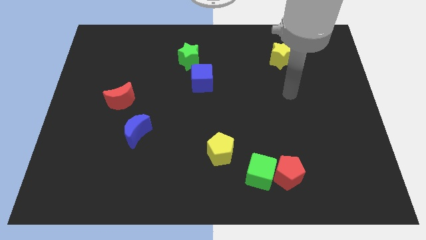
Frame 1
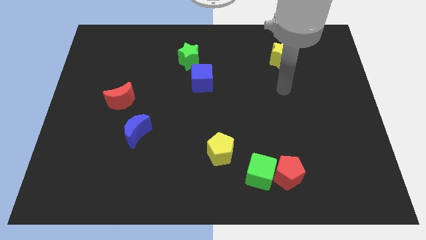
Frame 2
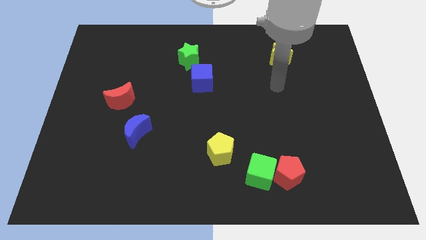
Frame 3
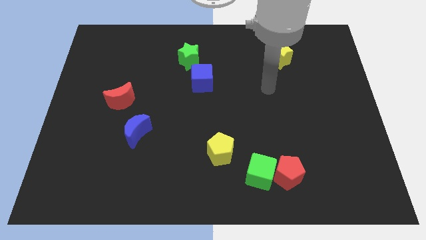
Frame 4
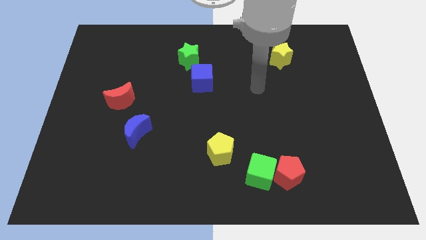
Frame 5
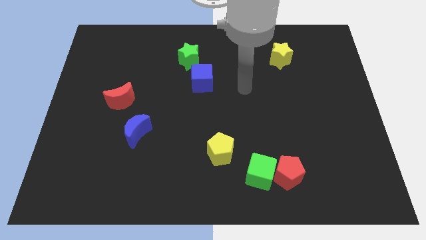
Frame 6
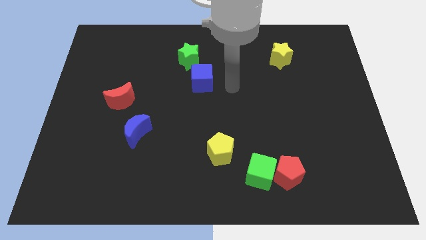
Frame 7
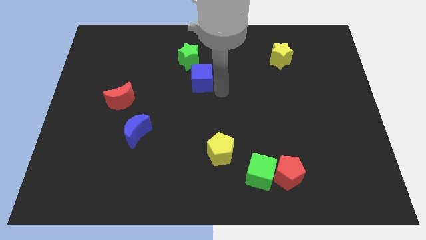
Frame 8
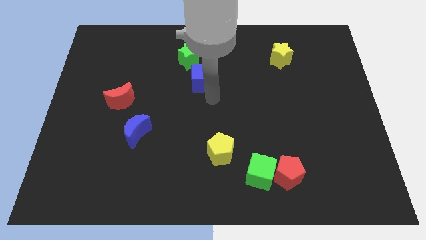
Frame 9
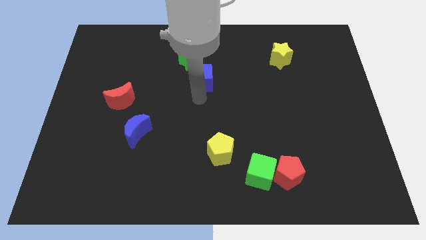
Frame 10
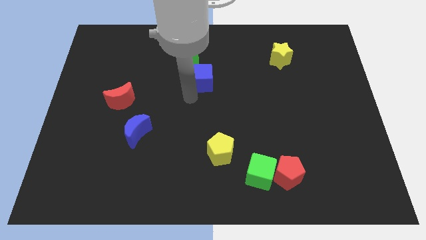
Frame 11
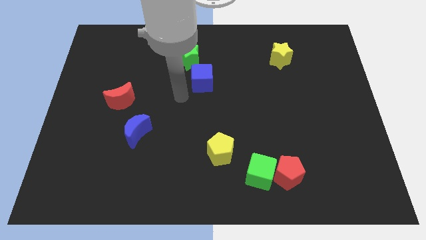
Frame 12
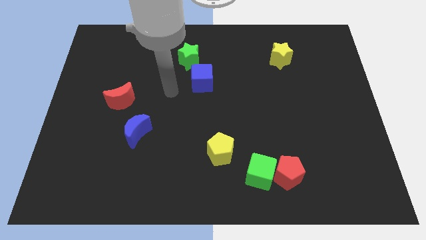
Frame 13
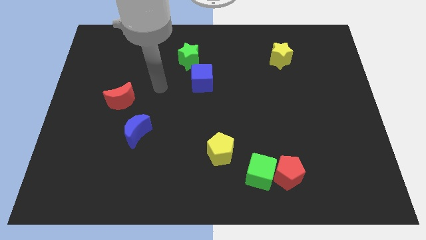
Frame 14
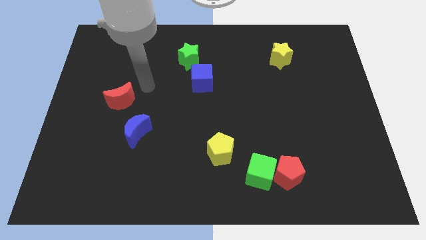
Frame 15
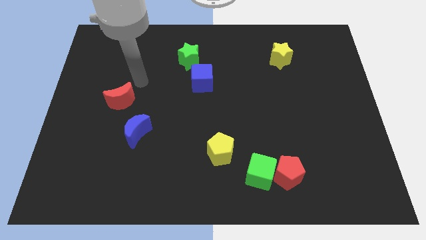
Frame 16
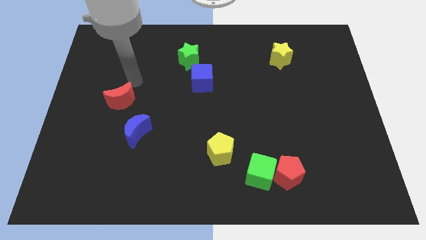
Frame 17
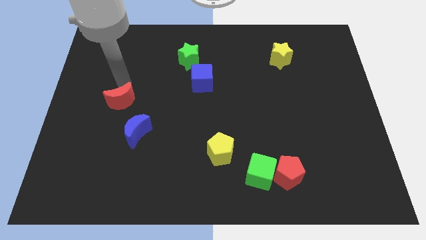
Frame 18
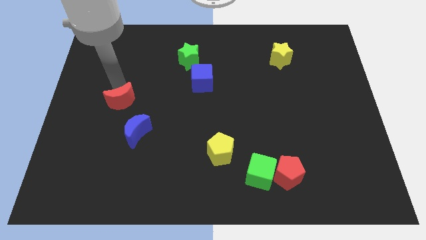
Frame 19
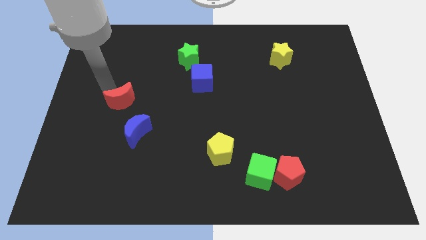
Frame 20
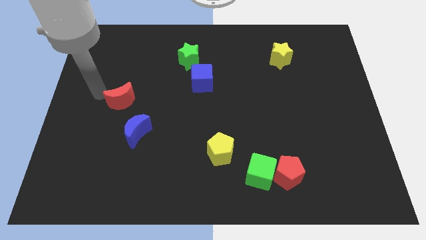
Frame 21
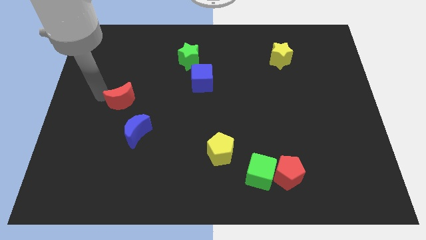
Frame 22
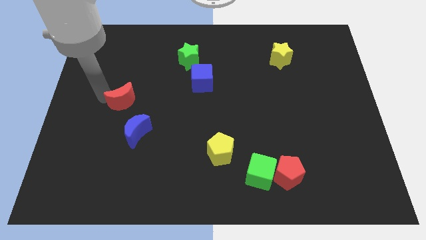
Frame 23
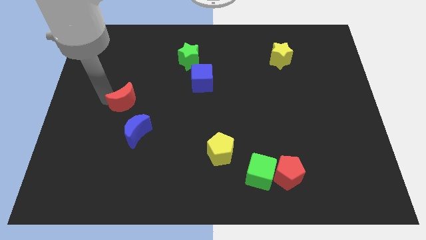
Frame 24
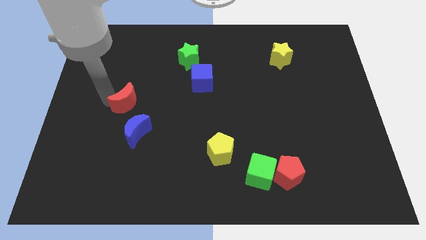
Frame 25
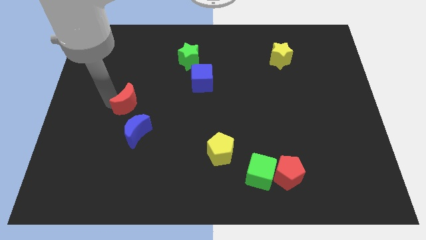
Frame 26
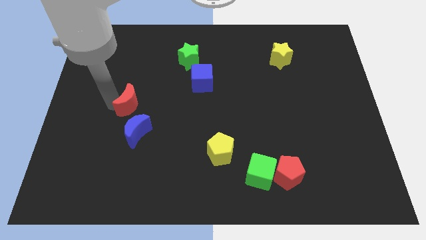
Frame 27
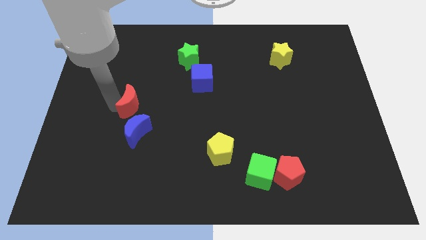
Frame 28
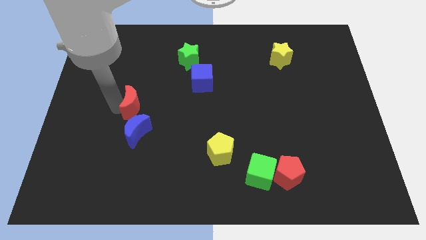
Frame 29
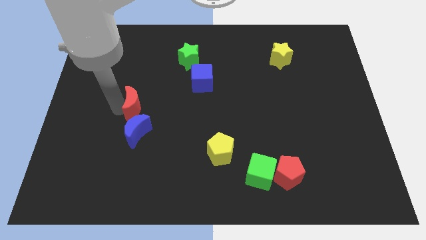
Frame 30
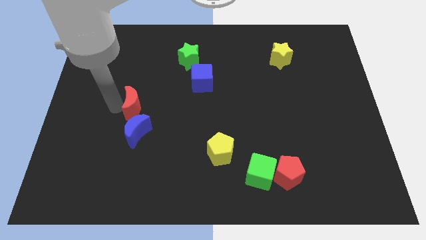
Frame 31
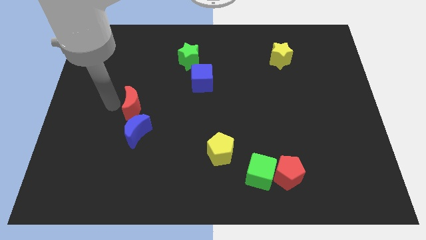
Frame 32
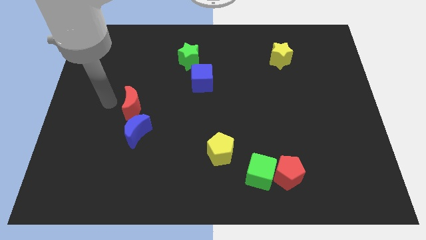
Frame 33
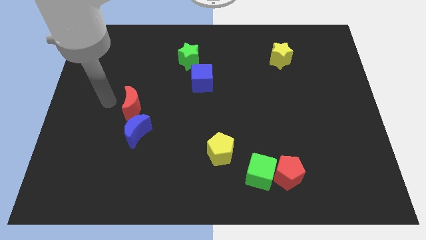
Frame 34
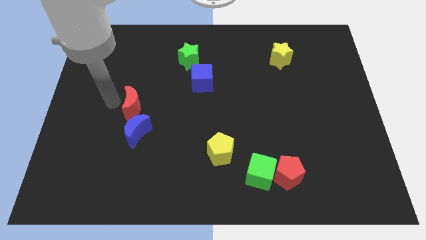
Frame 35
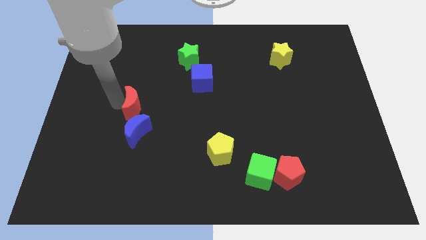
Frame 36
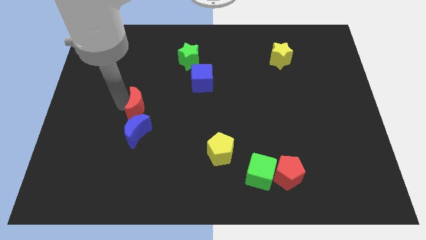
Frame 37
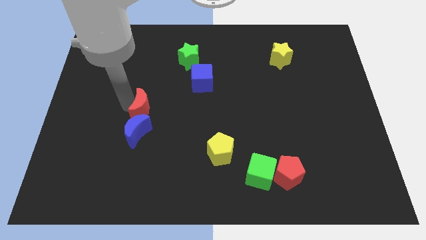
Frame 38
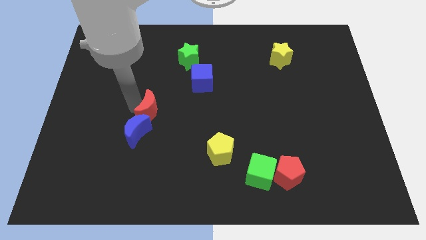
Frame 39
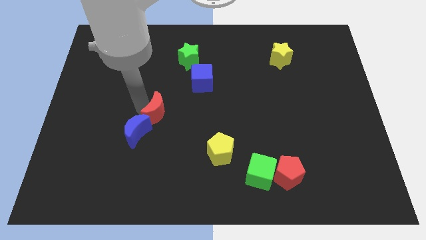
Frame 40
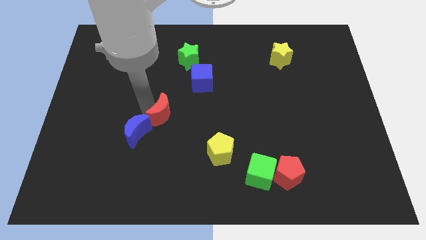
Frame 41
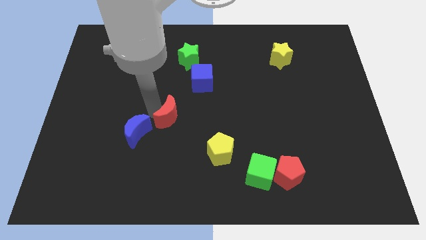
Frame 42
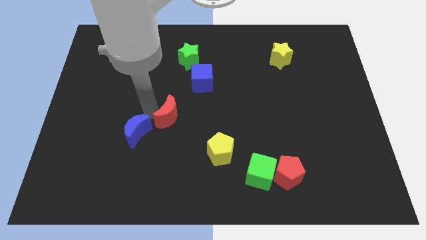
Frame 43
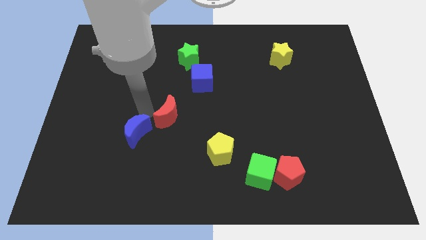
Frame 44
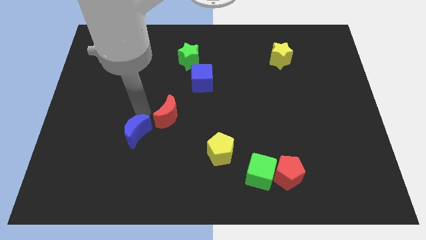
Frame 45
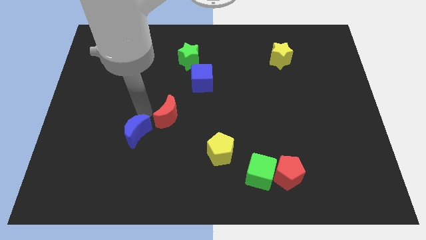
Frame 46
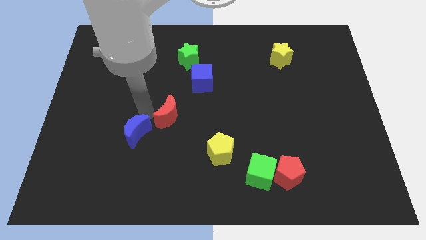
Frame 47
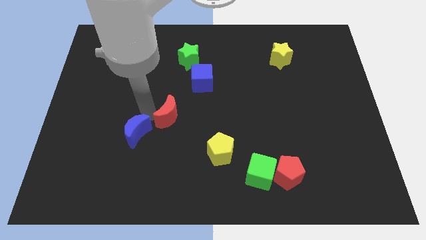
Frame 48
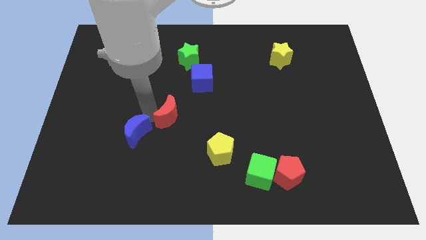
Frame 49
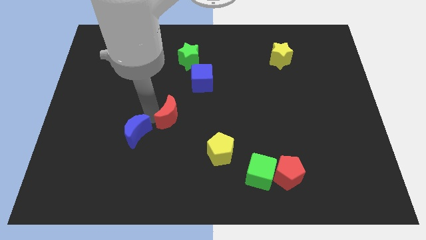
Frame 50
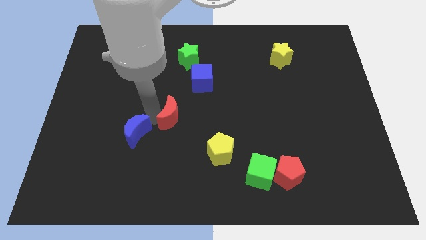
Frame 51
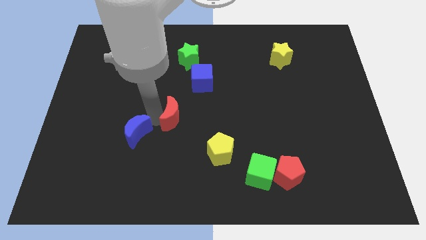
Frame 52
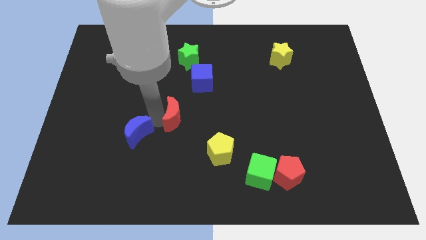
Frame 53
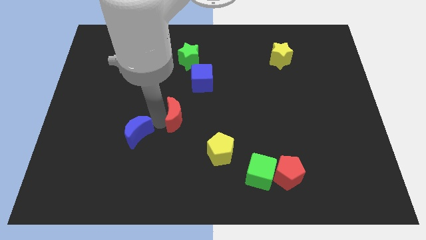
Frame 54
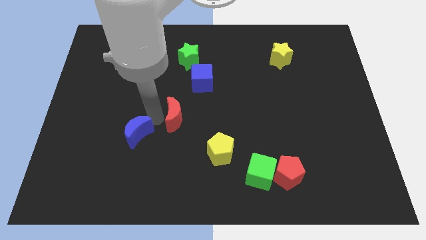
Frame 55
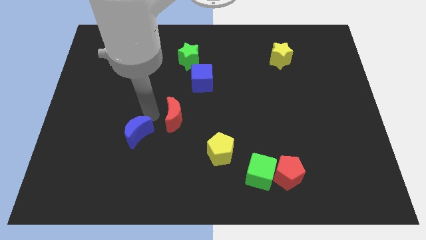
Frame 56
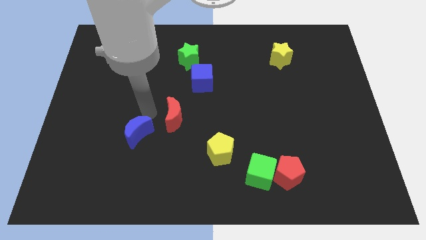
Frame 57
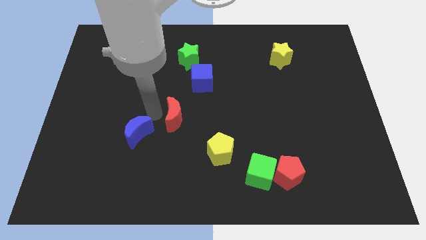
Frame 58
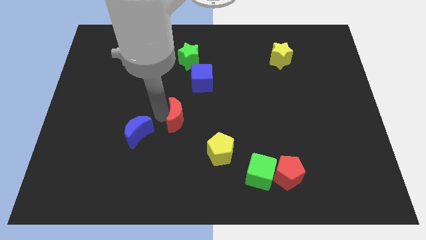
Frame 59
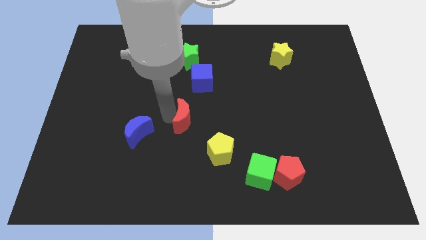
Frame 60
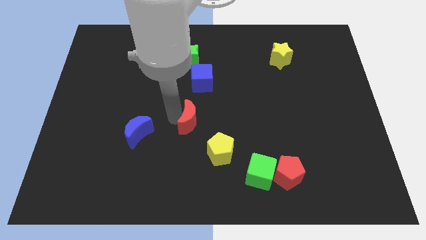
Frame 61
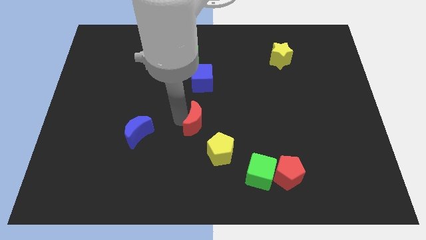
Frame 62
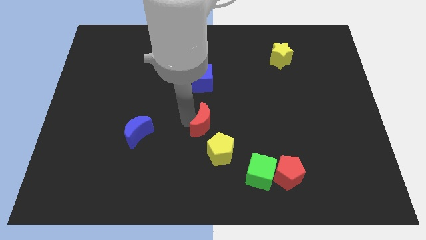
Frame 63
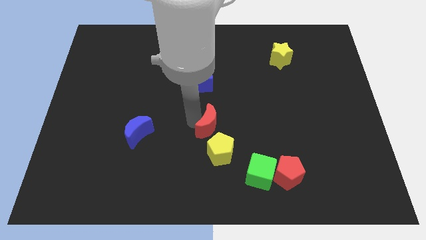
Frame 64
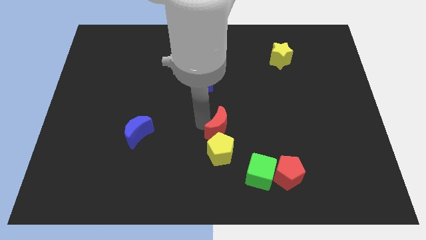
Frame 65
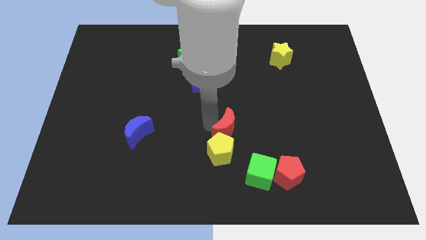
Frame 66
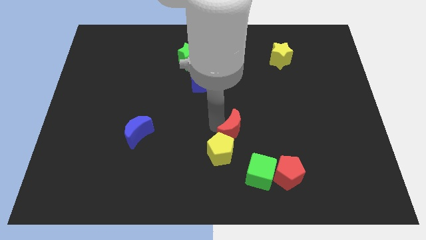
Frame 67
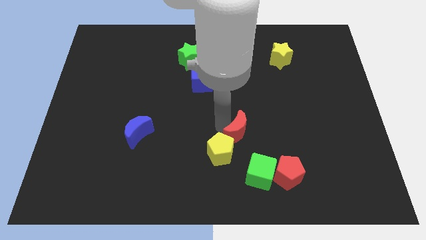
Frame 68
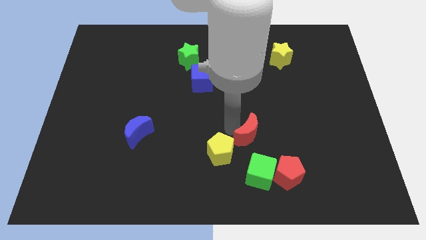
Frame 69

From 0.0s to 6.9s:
push the red moon just right of the yellow pentagon
